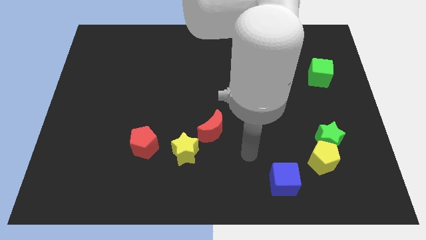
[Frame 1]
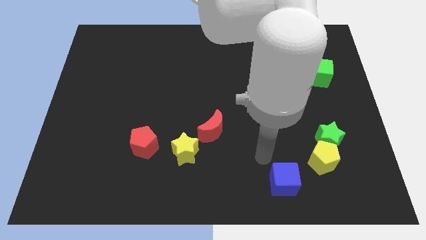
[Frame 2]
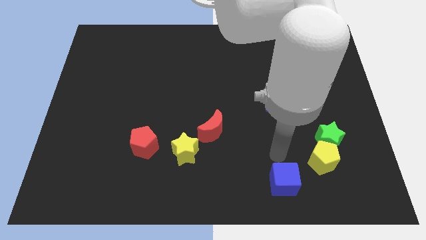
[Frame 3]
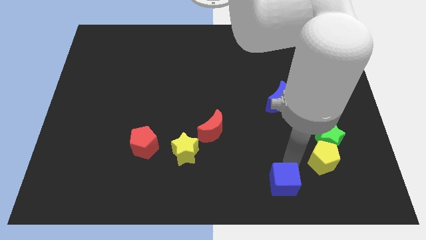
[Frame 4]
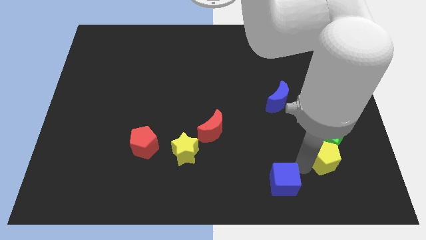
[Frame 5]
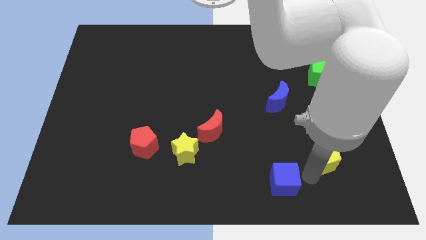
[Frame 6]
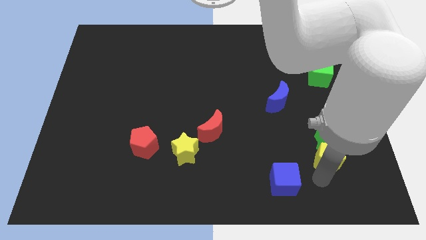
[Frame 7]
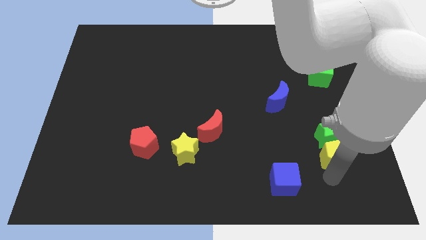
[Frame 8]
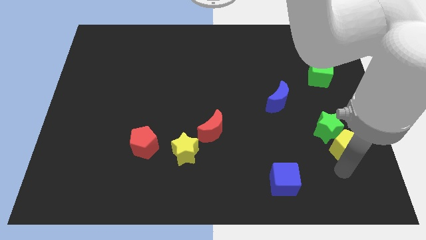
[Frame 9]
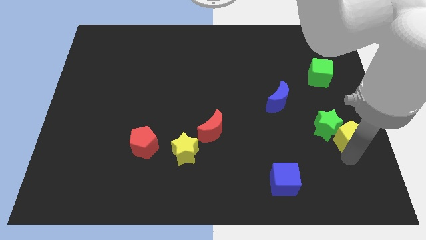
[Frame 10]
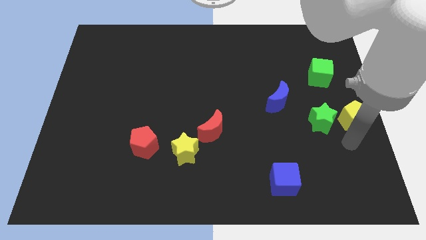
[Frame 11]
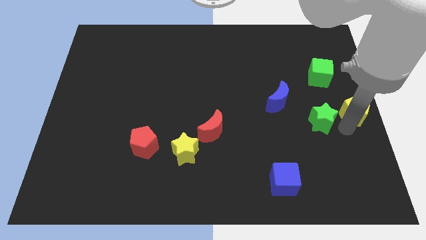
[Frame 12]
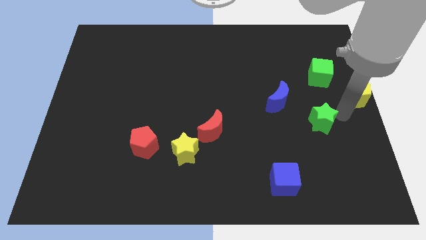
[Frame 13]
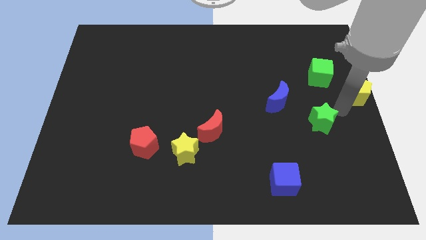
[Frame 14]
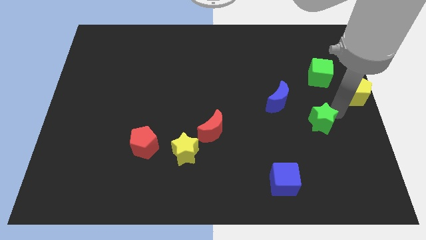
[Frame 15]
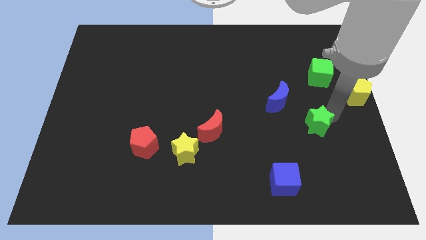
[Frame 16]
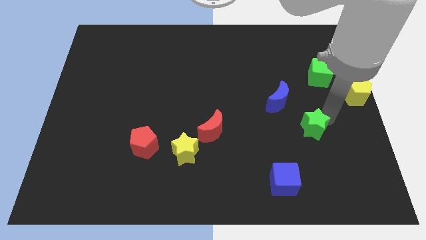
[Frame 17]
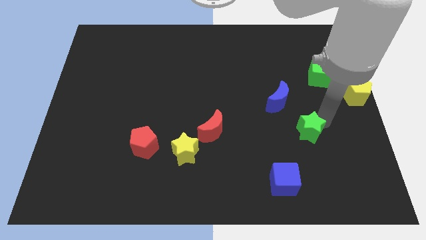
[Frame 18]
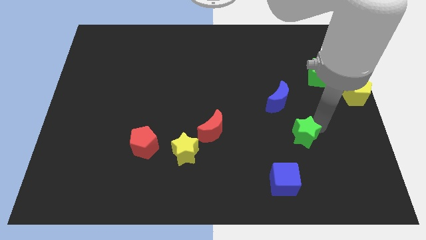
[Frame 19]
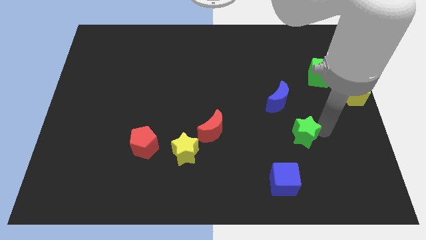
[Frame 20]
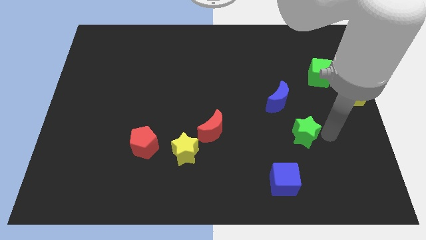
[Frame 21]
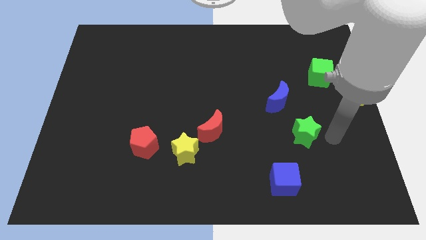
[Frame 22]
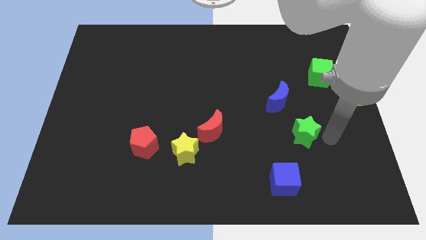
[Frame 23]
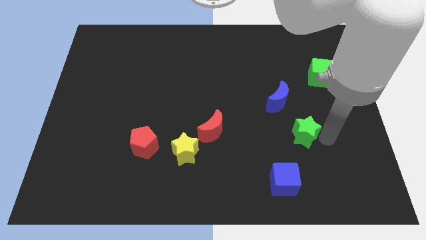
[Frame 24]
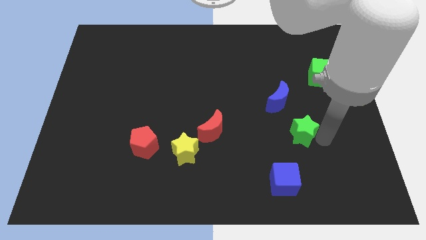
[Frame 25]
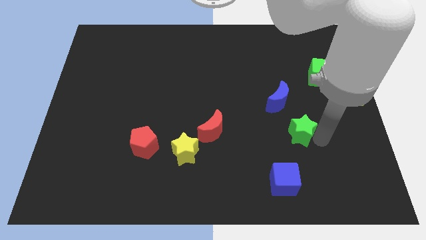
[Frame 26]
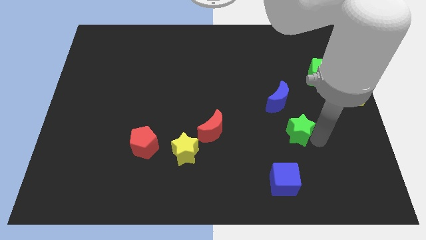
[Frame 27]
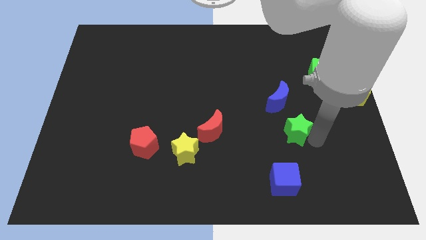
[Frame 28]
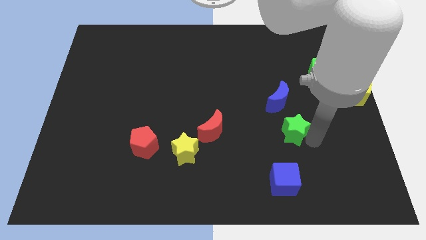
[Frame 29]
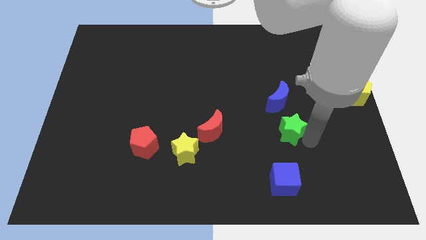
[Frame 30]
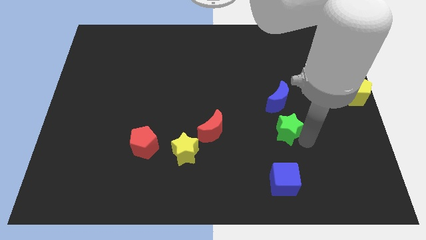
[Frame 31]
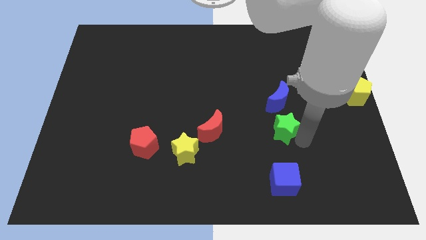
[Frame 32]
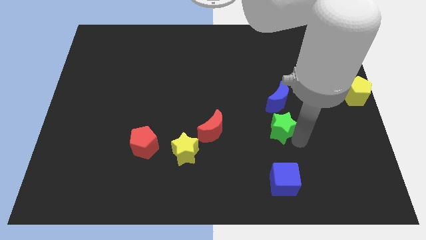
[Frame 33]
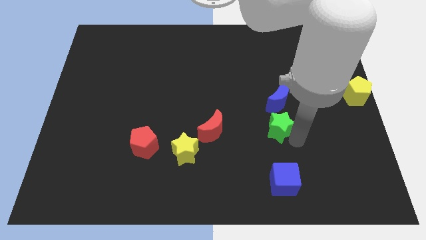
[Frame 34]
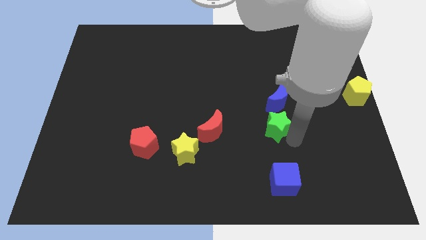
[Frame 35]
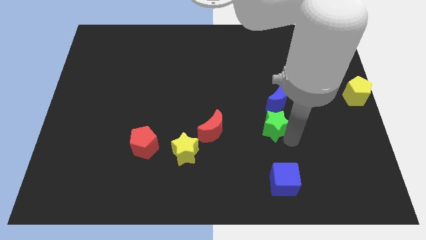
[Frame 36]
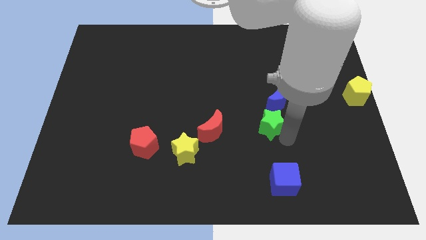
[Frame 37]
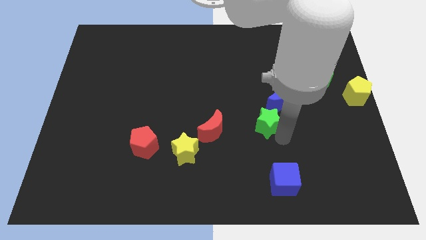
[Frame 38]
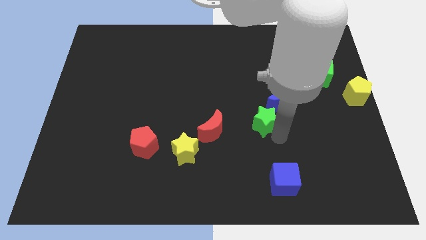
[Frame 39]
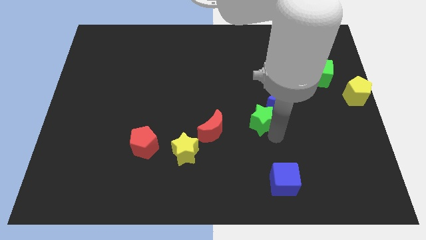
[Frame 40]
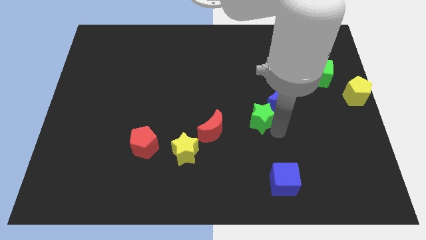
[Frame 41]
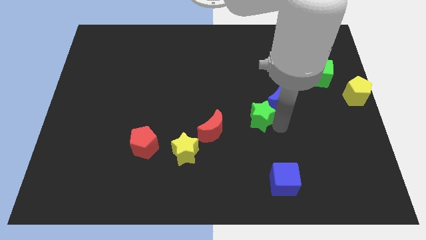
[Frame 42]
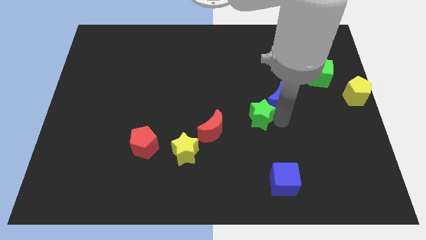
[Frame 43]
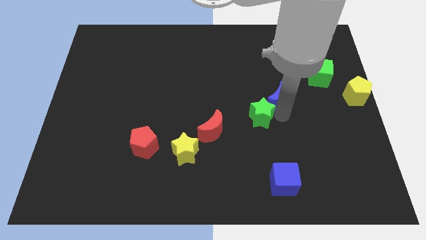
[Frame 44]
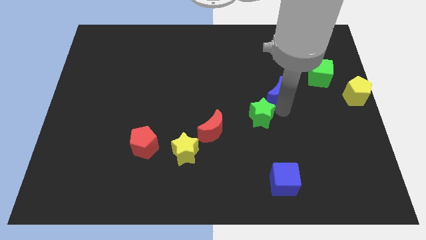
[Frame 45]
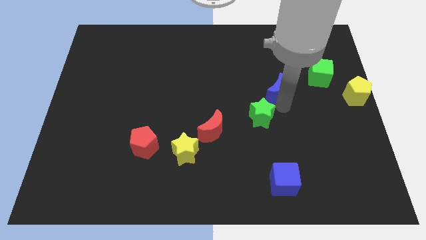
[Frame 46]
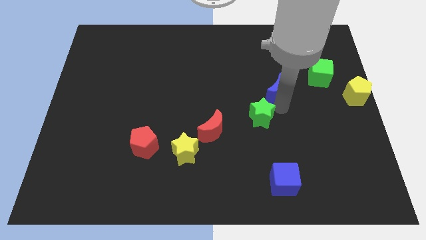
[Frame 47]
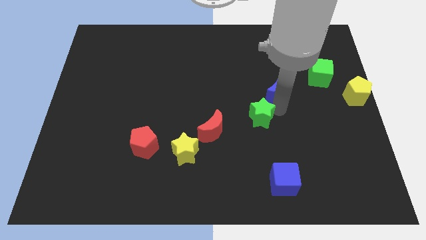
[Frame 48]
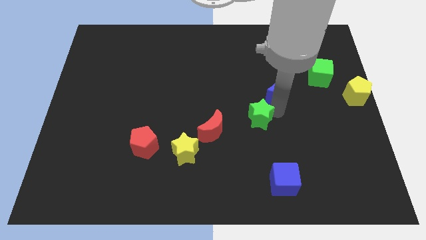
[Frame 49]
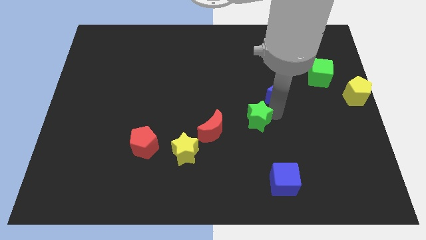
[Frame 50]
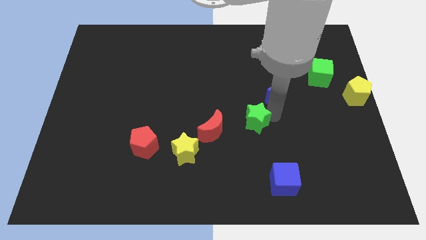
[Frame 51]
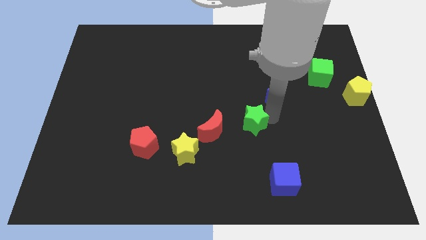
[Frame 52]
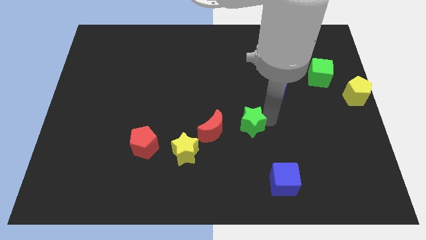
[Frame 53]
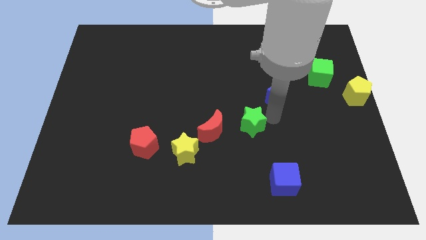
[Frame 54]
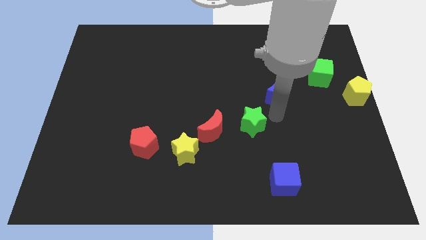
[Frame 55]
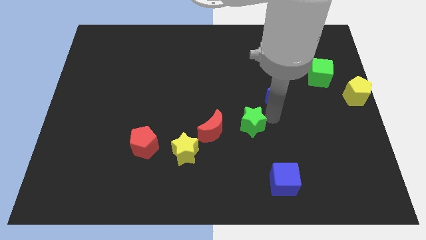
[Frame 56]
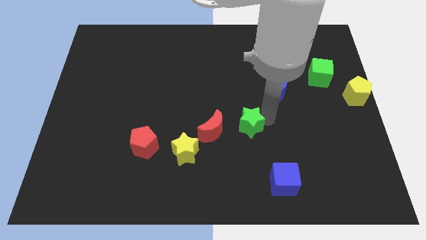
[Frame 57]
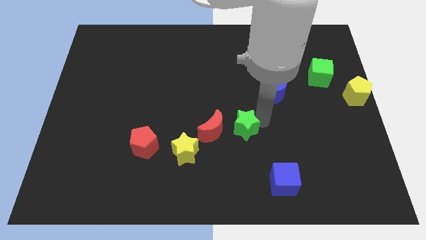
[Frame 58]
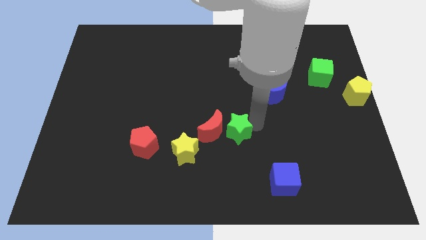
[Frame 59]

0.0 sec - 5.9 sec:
slide the green star towards the red moon

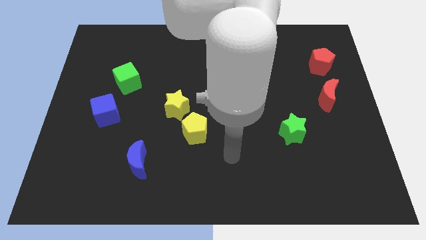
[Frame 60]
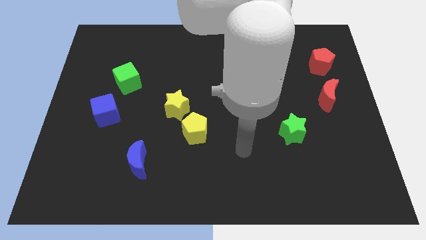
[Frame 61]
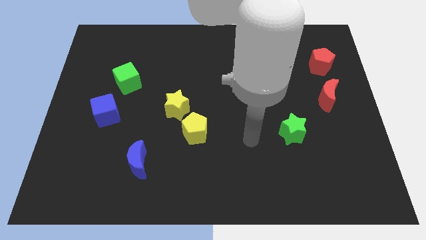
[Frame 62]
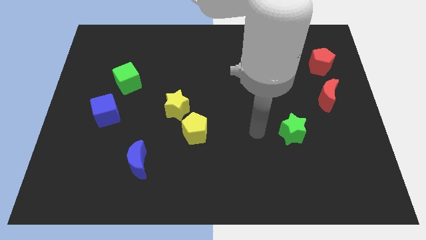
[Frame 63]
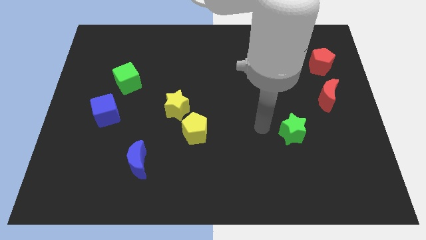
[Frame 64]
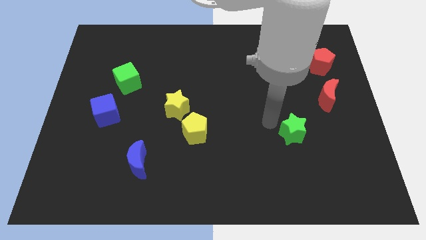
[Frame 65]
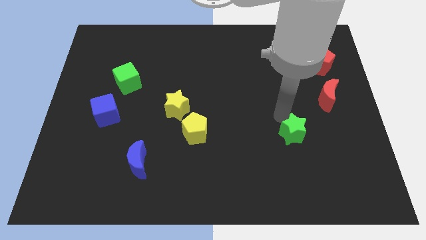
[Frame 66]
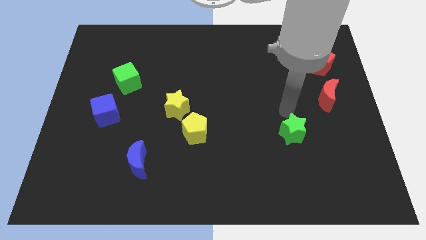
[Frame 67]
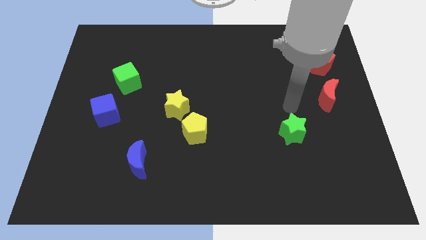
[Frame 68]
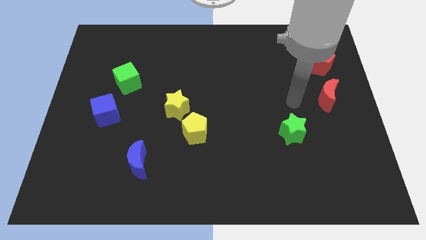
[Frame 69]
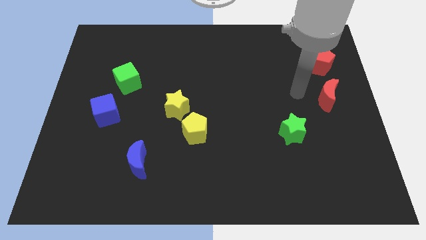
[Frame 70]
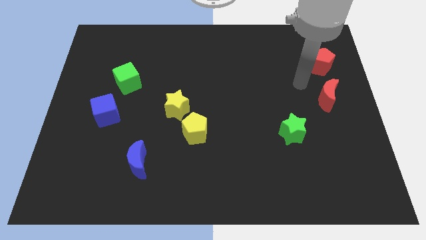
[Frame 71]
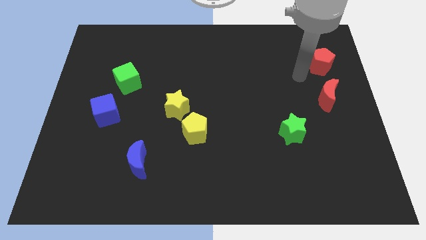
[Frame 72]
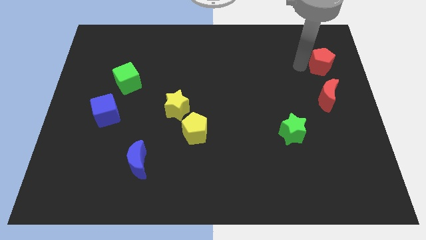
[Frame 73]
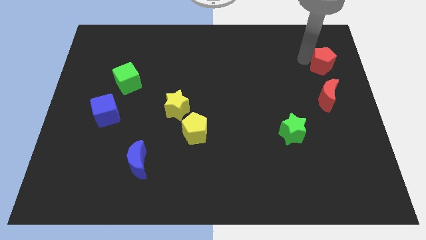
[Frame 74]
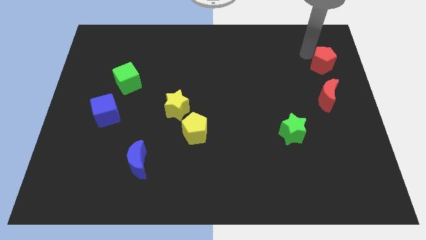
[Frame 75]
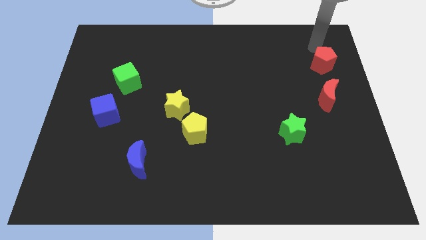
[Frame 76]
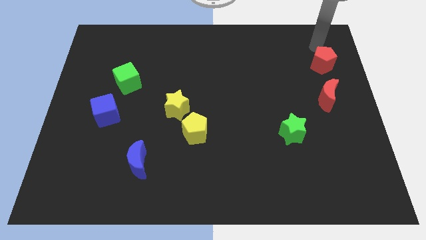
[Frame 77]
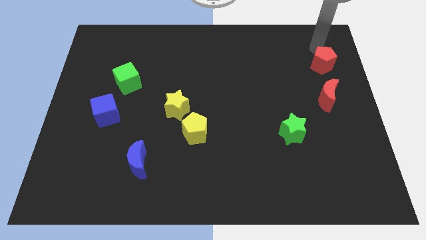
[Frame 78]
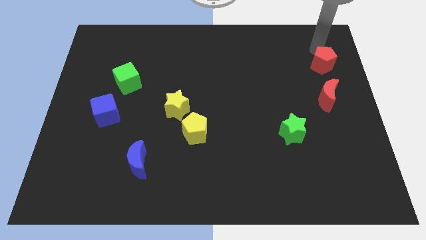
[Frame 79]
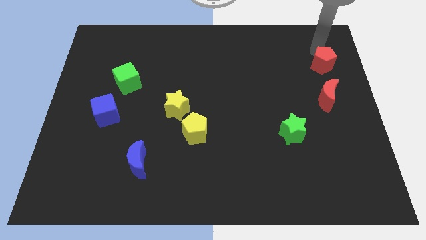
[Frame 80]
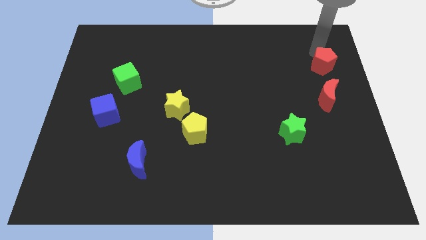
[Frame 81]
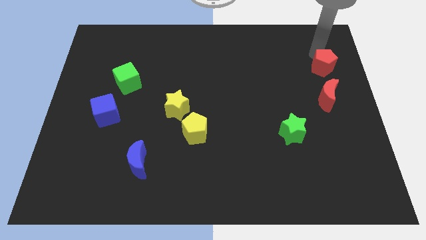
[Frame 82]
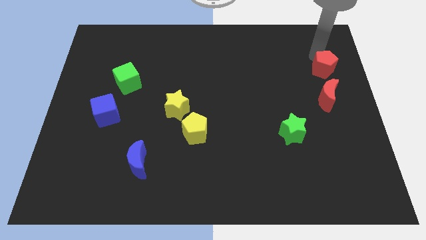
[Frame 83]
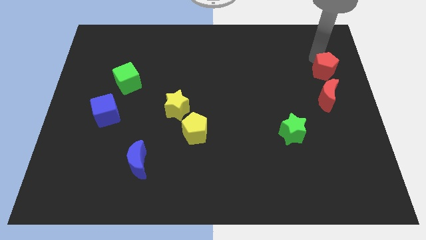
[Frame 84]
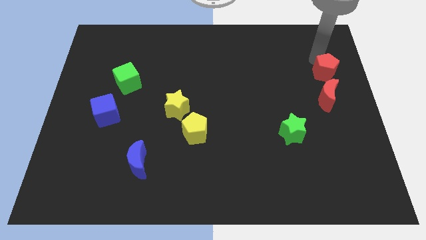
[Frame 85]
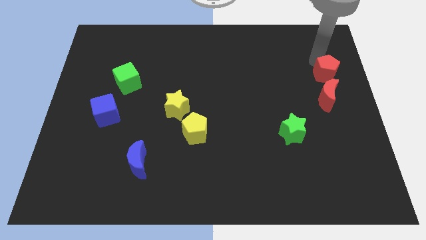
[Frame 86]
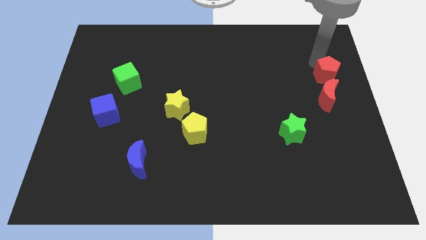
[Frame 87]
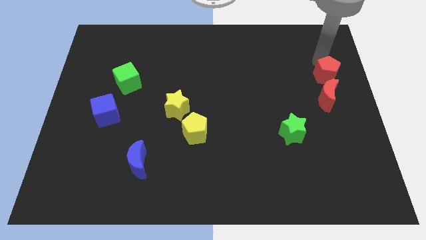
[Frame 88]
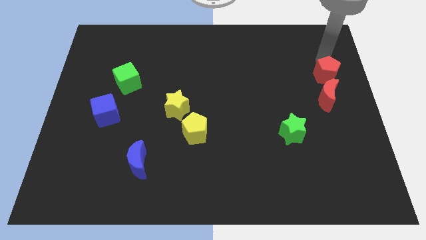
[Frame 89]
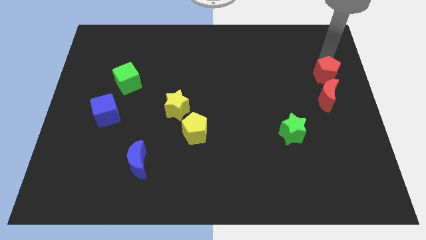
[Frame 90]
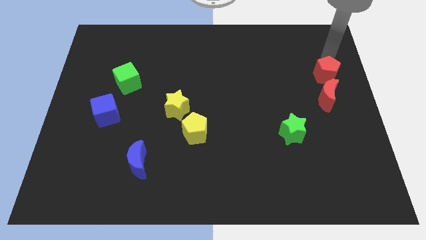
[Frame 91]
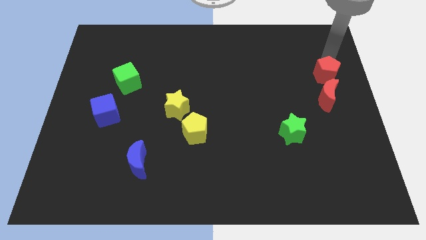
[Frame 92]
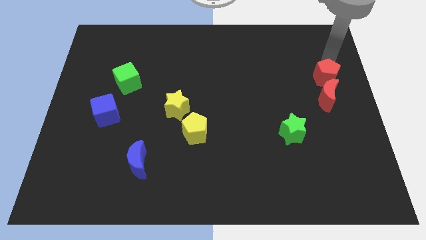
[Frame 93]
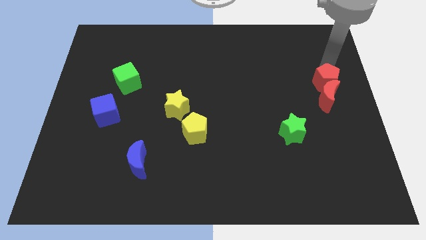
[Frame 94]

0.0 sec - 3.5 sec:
put the red pentagon next to the red moon
